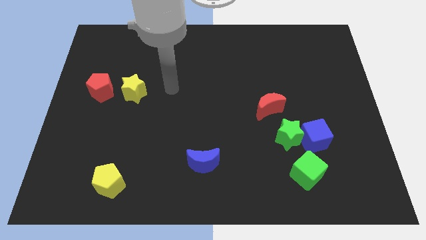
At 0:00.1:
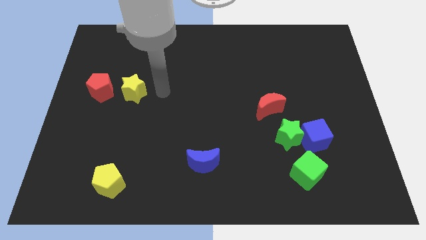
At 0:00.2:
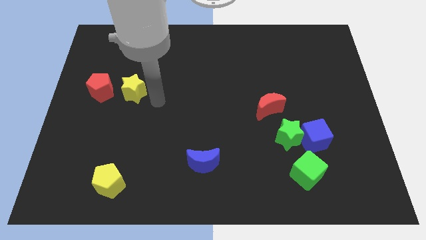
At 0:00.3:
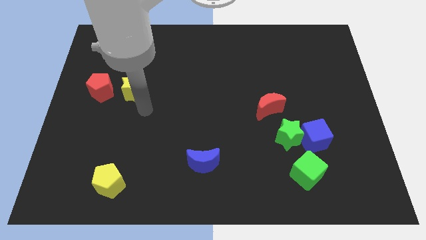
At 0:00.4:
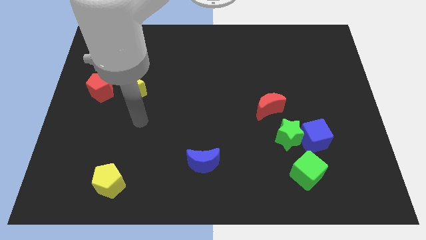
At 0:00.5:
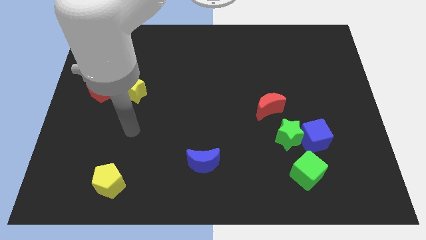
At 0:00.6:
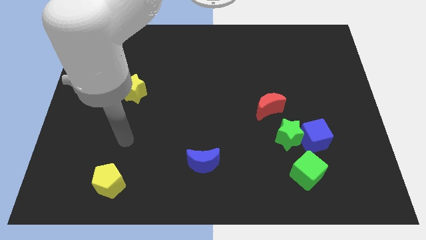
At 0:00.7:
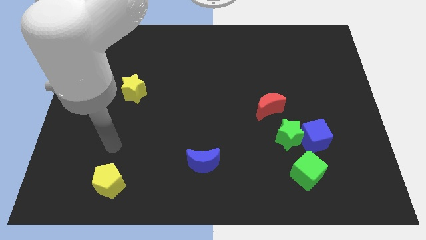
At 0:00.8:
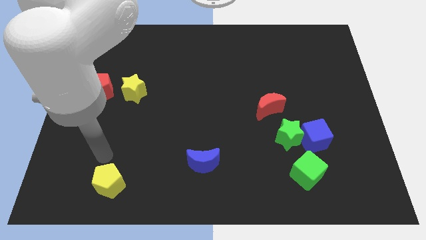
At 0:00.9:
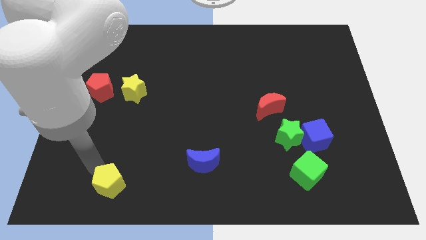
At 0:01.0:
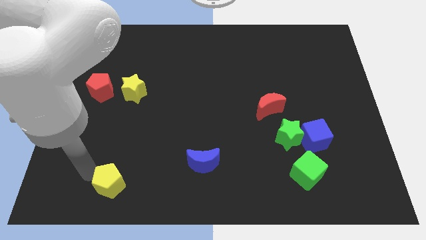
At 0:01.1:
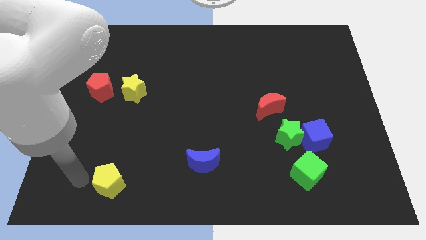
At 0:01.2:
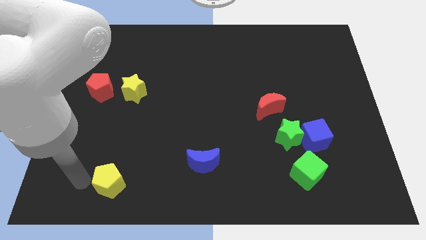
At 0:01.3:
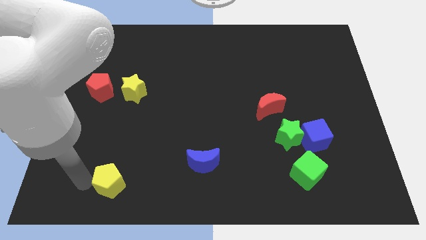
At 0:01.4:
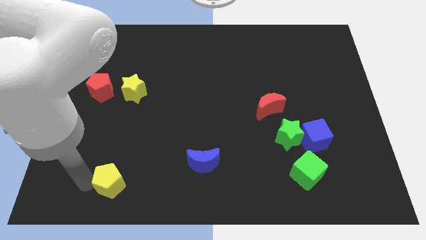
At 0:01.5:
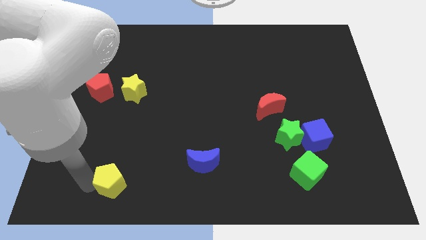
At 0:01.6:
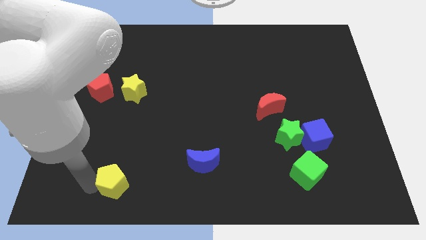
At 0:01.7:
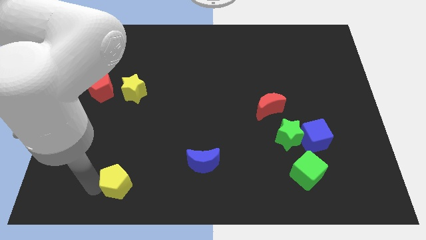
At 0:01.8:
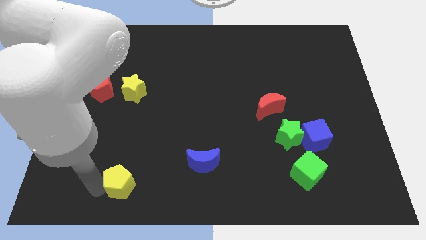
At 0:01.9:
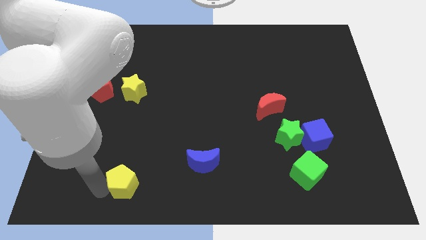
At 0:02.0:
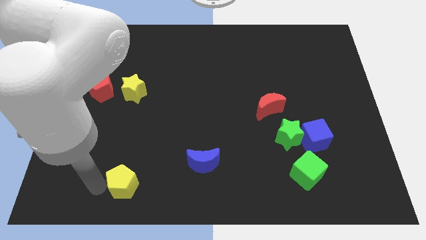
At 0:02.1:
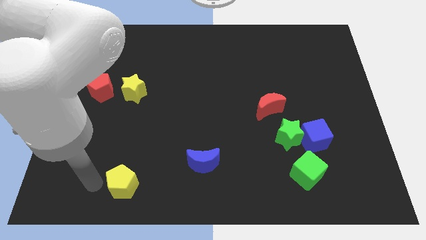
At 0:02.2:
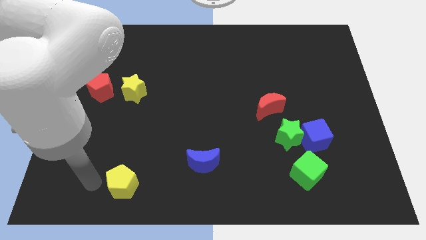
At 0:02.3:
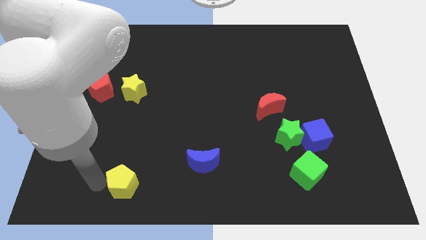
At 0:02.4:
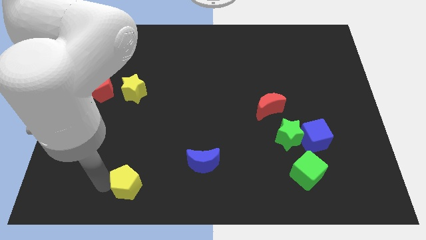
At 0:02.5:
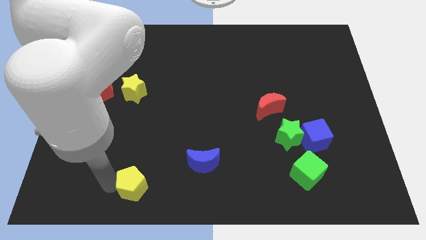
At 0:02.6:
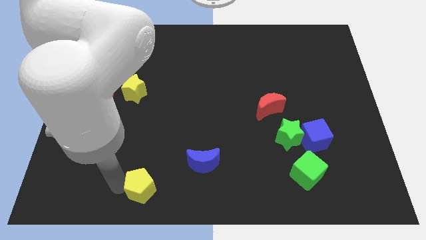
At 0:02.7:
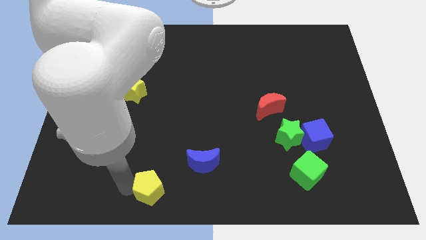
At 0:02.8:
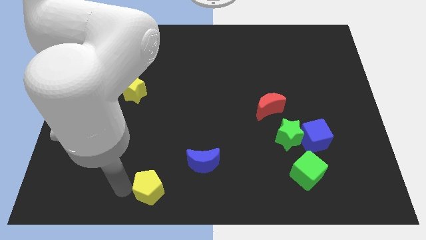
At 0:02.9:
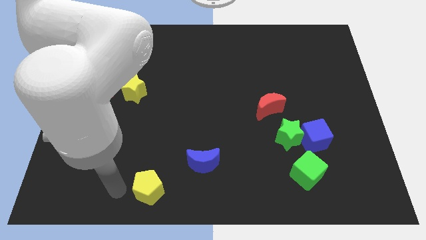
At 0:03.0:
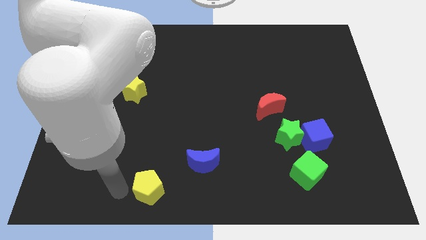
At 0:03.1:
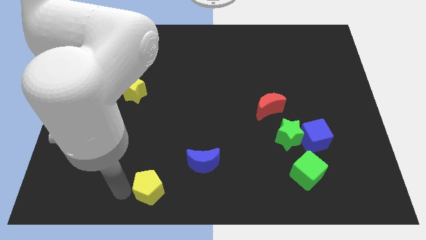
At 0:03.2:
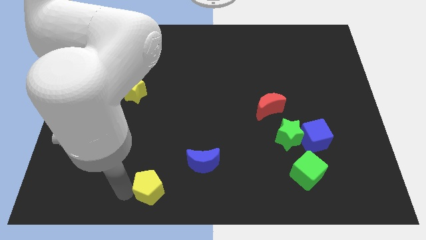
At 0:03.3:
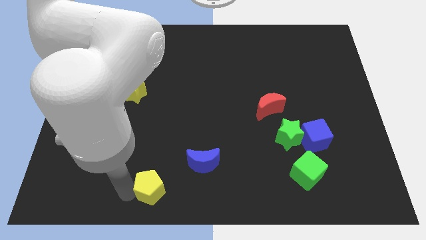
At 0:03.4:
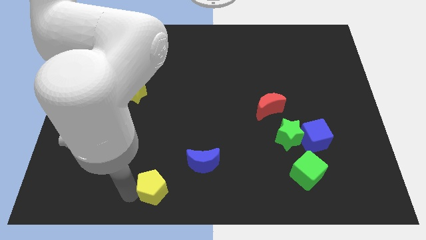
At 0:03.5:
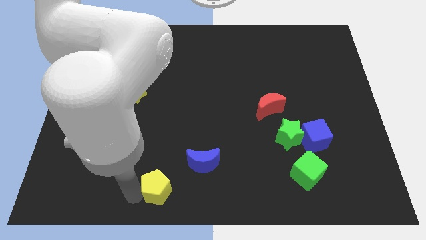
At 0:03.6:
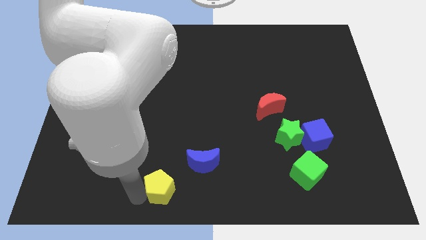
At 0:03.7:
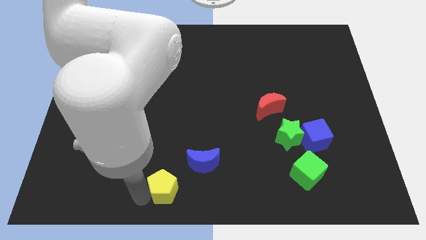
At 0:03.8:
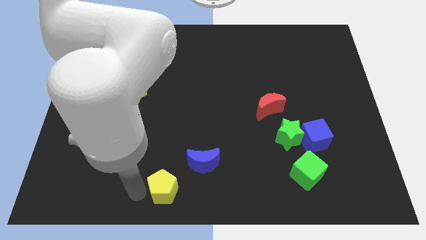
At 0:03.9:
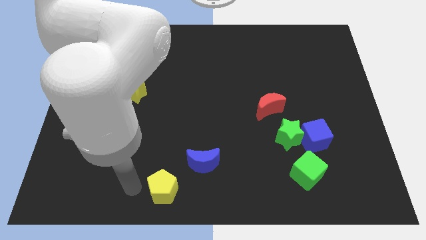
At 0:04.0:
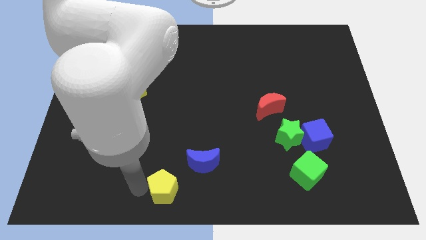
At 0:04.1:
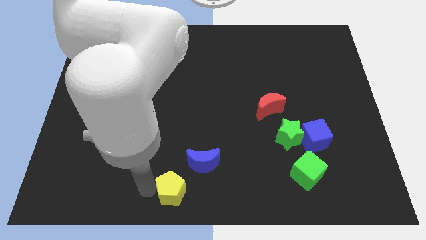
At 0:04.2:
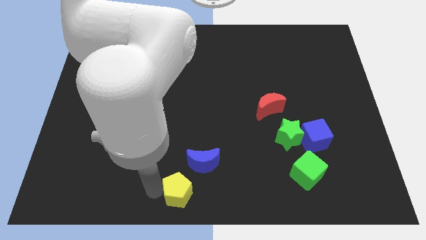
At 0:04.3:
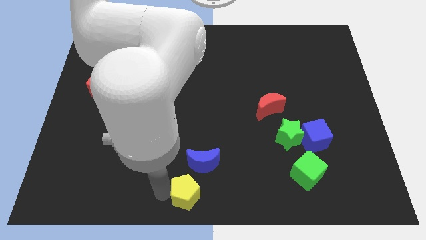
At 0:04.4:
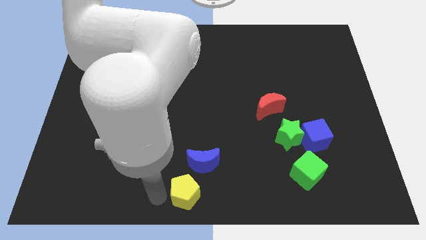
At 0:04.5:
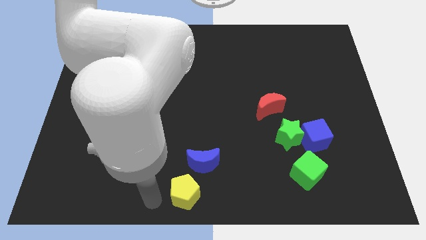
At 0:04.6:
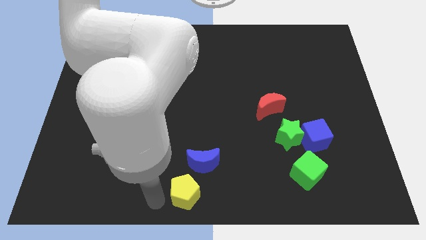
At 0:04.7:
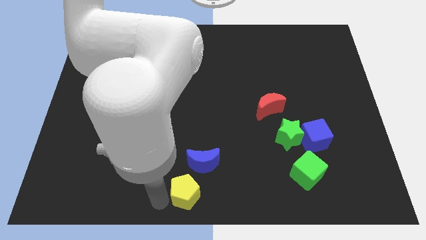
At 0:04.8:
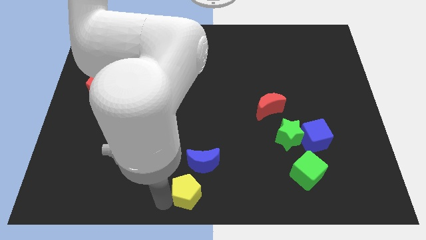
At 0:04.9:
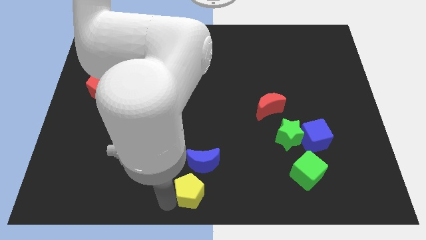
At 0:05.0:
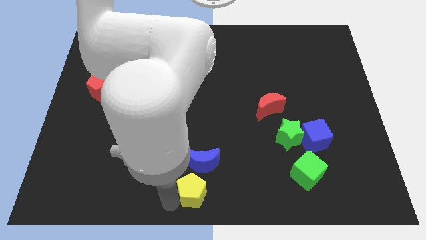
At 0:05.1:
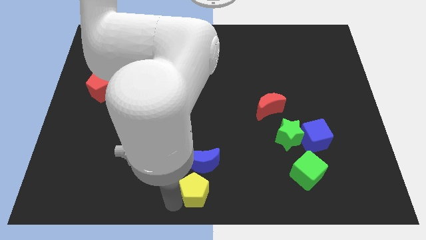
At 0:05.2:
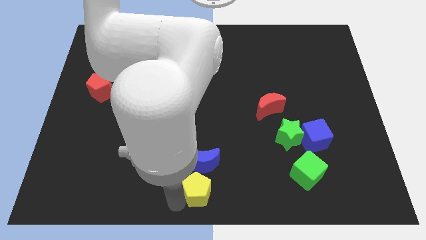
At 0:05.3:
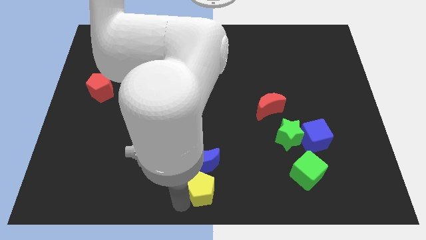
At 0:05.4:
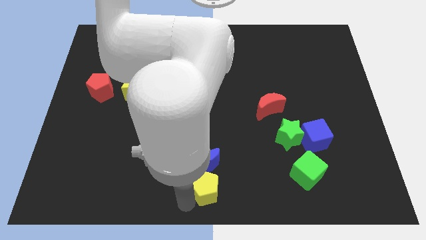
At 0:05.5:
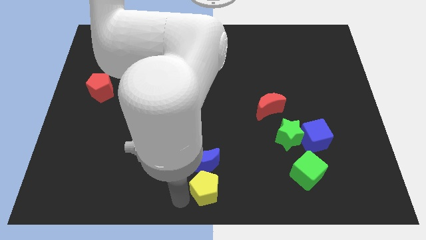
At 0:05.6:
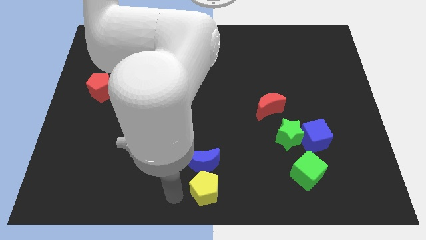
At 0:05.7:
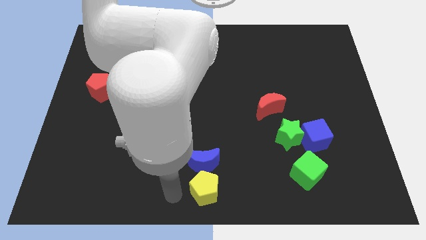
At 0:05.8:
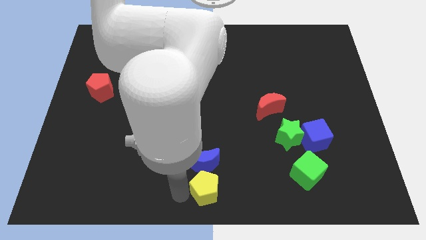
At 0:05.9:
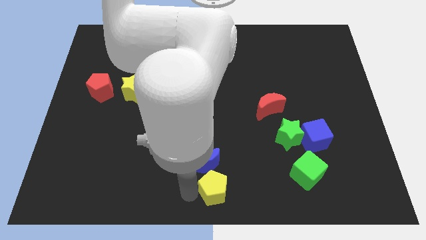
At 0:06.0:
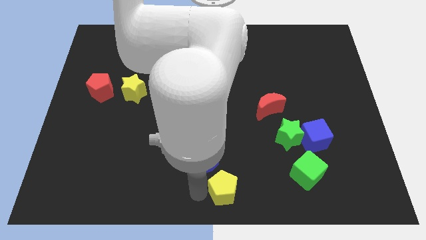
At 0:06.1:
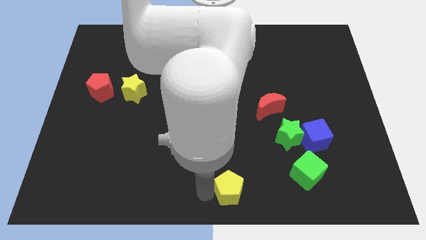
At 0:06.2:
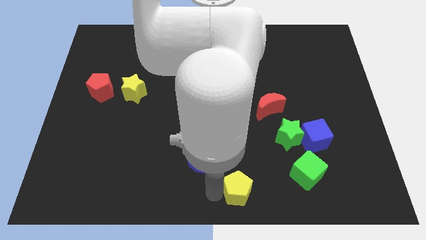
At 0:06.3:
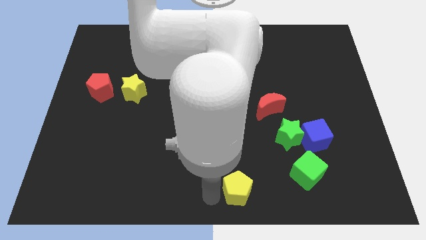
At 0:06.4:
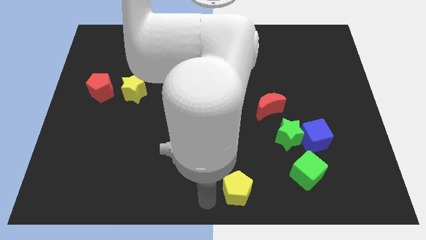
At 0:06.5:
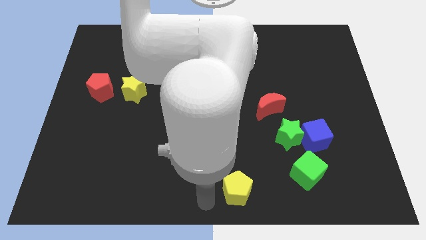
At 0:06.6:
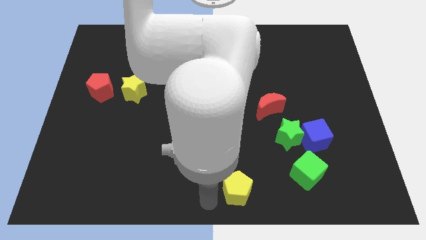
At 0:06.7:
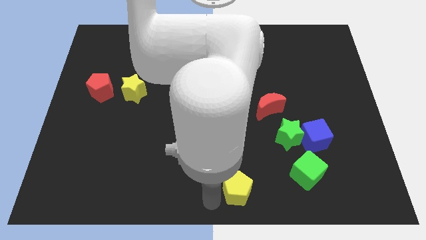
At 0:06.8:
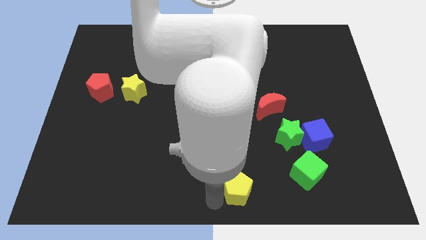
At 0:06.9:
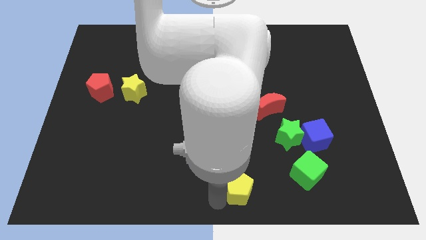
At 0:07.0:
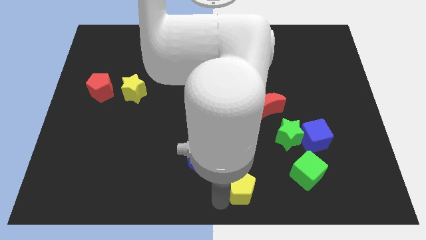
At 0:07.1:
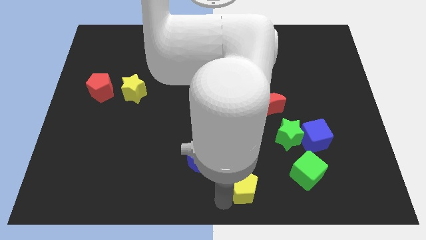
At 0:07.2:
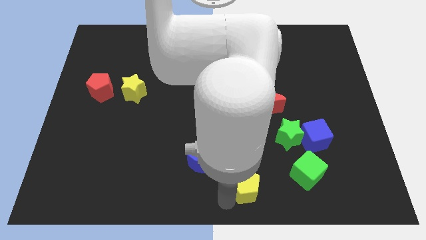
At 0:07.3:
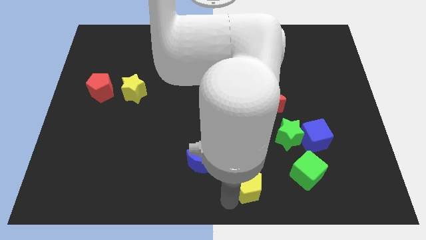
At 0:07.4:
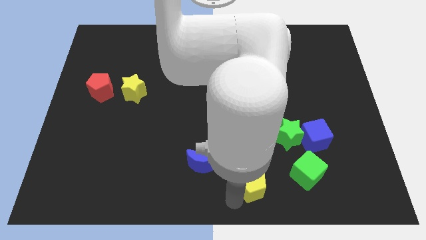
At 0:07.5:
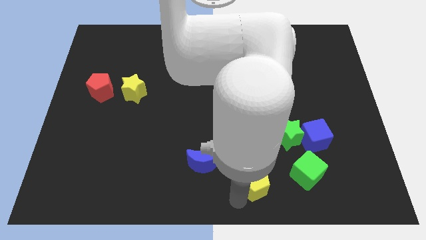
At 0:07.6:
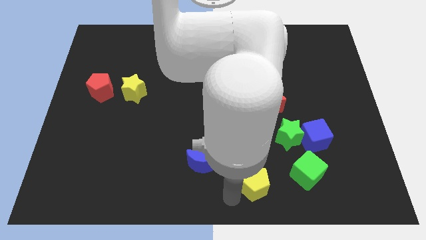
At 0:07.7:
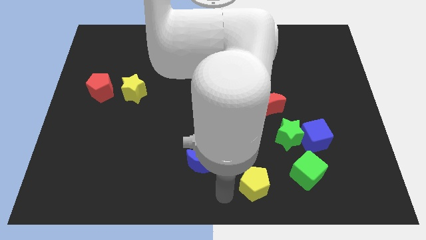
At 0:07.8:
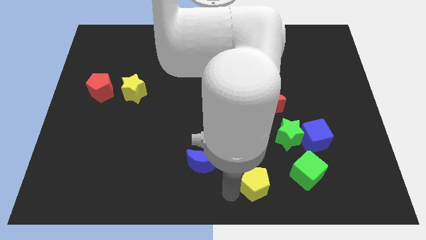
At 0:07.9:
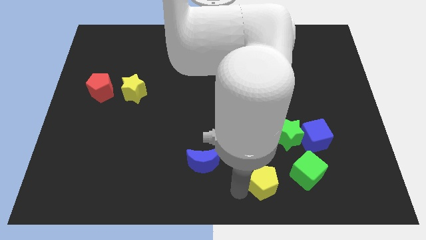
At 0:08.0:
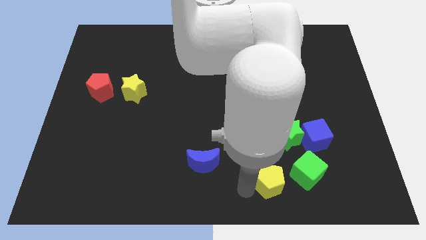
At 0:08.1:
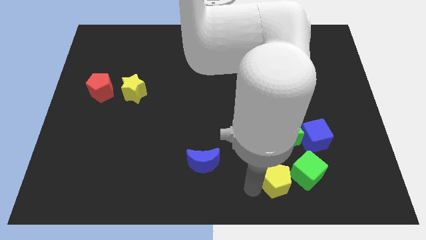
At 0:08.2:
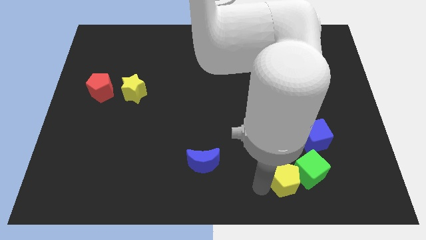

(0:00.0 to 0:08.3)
move the yellow pentagon to the green cube
